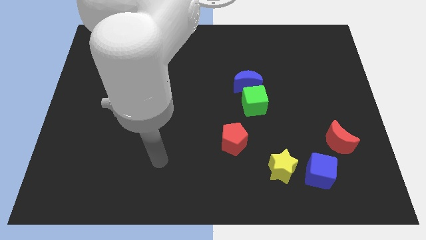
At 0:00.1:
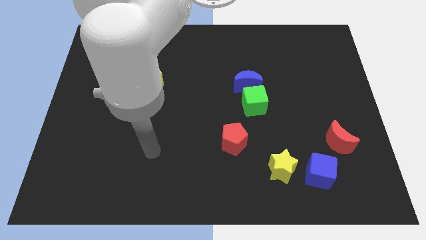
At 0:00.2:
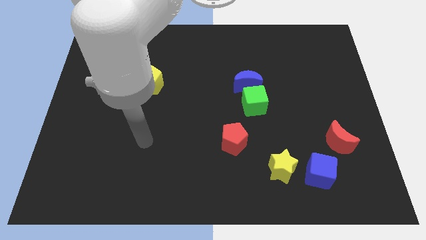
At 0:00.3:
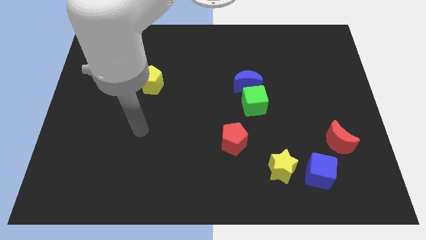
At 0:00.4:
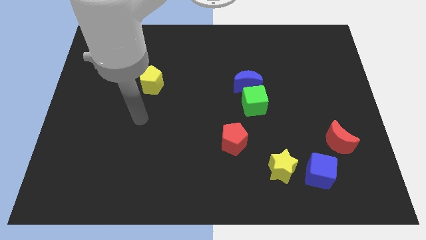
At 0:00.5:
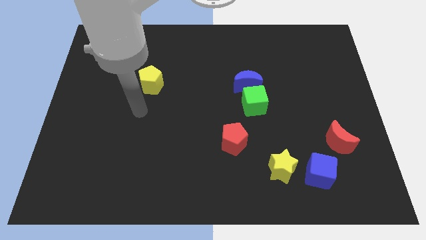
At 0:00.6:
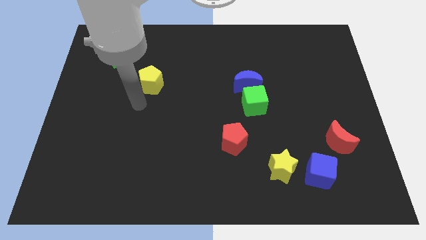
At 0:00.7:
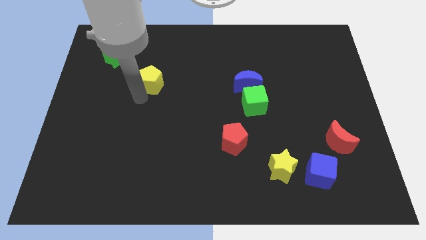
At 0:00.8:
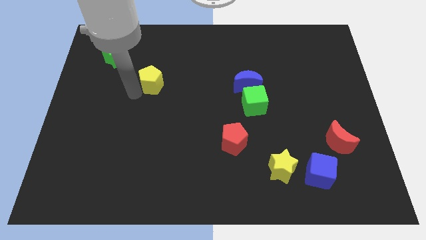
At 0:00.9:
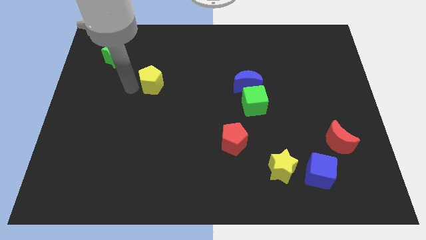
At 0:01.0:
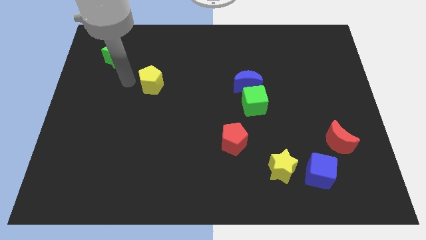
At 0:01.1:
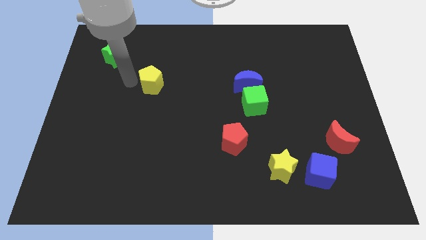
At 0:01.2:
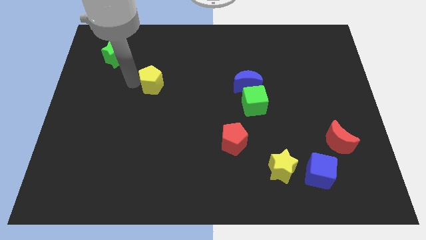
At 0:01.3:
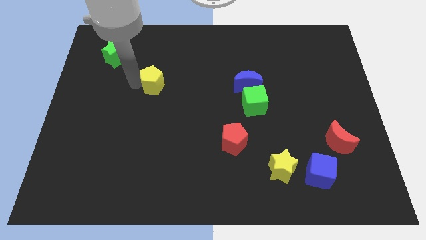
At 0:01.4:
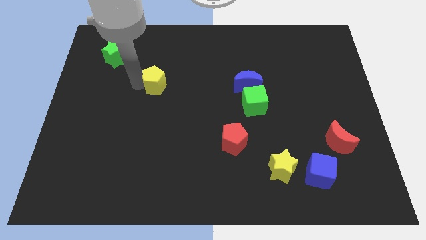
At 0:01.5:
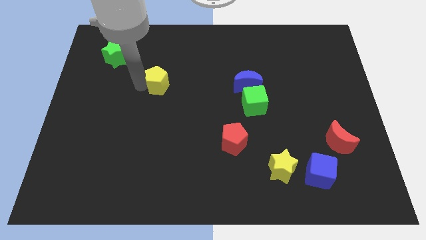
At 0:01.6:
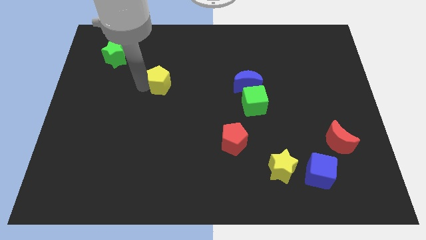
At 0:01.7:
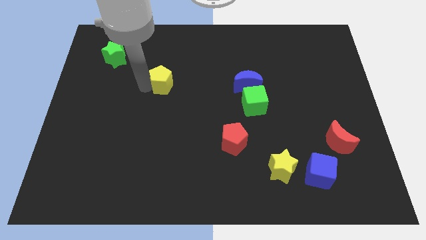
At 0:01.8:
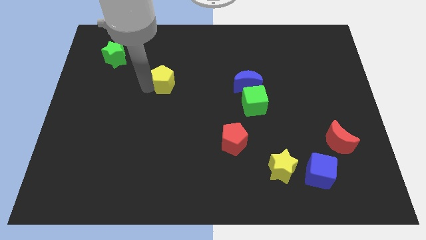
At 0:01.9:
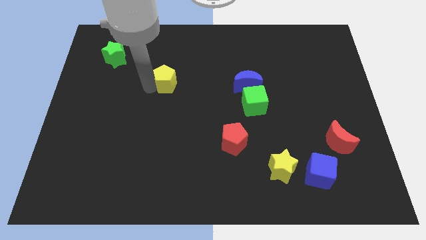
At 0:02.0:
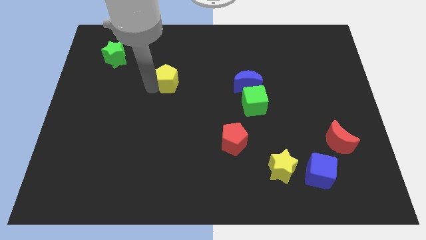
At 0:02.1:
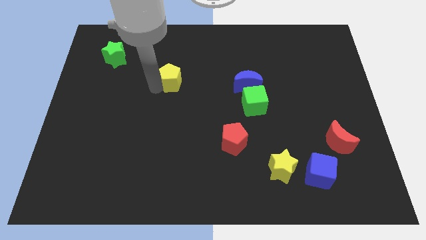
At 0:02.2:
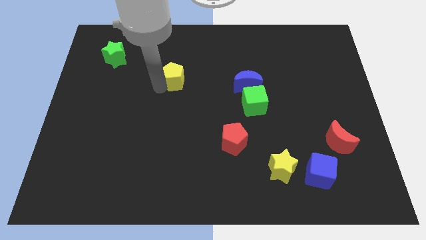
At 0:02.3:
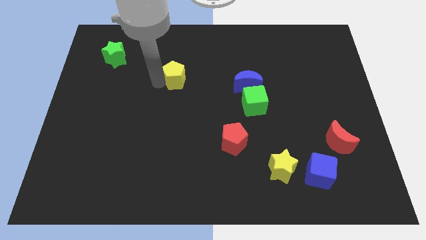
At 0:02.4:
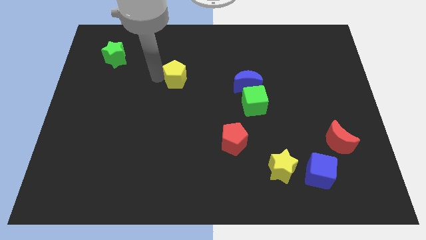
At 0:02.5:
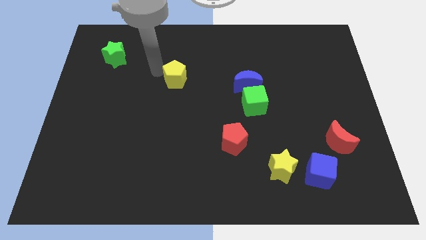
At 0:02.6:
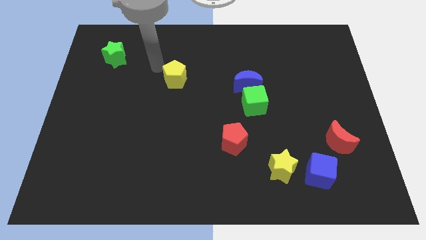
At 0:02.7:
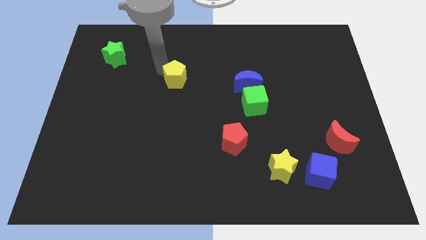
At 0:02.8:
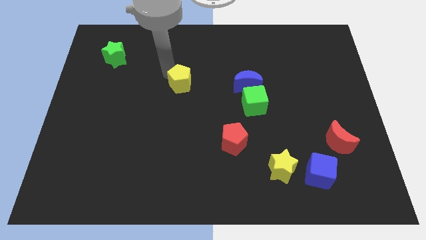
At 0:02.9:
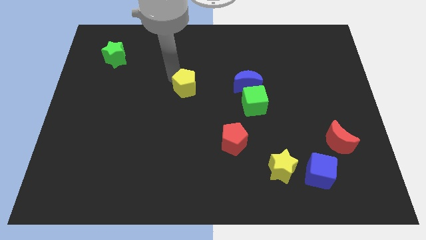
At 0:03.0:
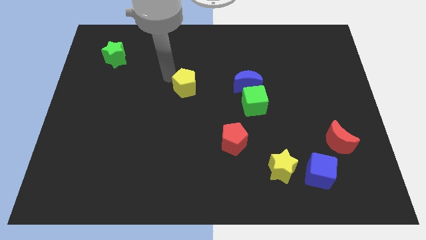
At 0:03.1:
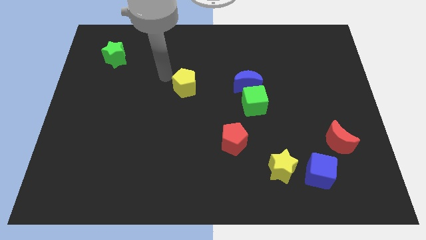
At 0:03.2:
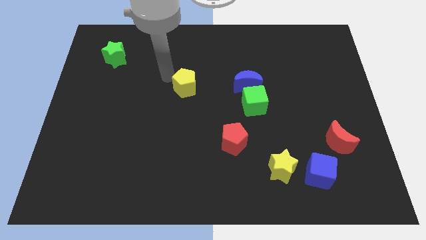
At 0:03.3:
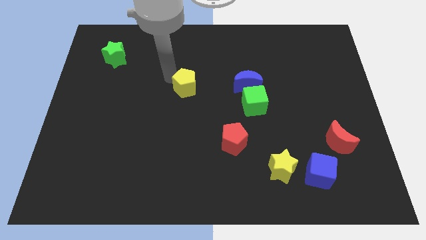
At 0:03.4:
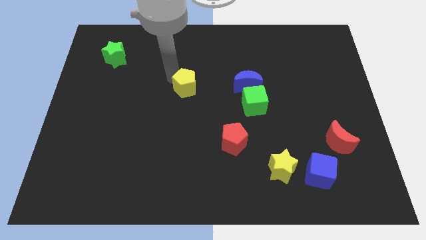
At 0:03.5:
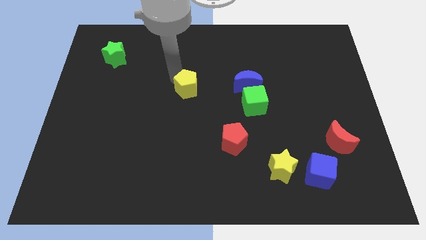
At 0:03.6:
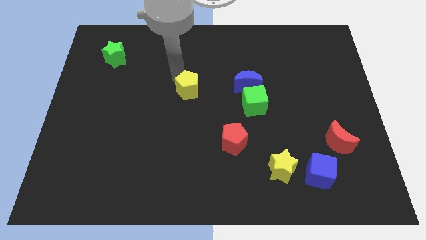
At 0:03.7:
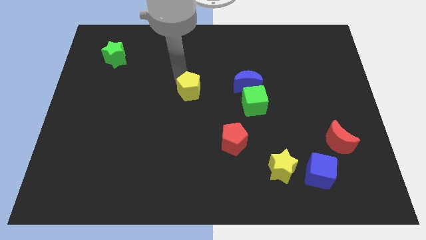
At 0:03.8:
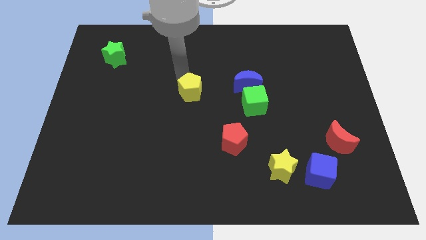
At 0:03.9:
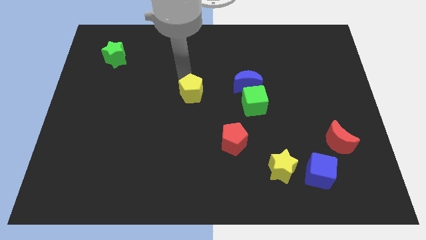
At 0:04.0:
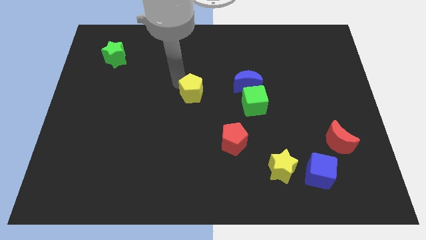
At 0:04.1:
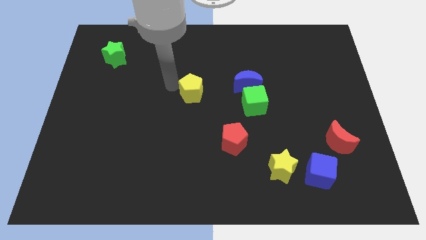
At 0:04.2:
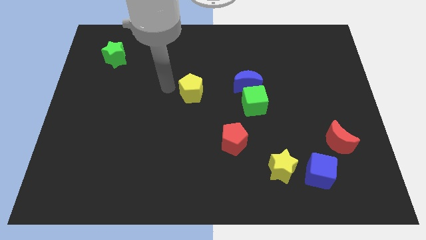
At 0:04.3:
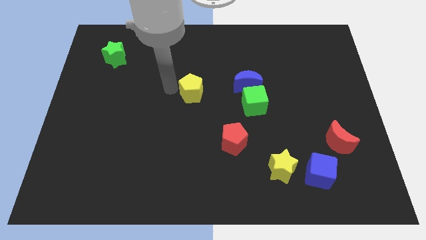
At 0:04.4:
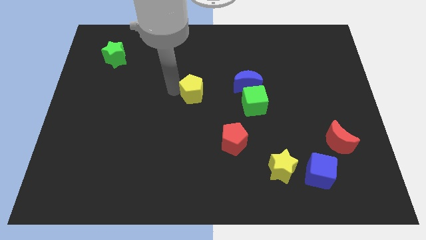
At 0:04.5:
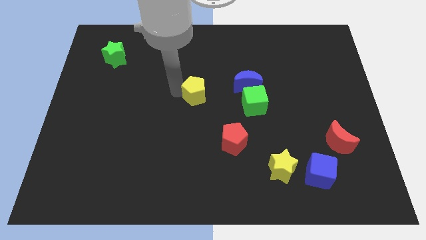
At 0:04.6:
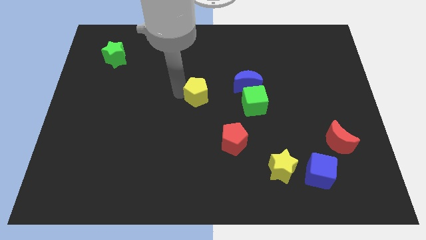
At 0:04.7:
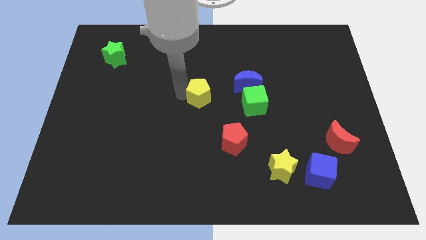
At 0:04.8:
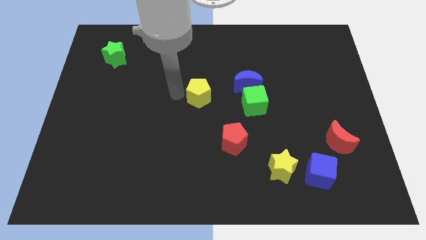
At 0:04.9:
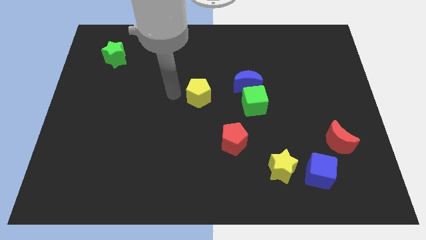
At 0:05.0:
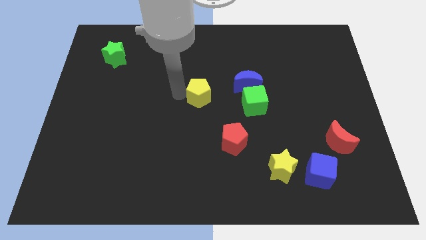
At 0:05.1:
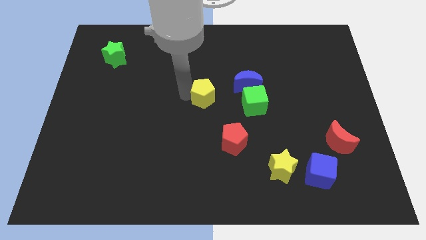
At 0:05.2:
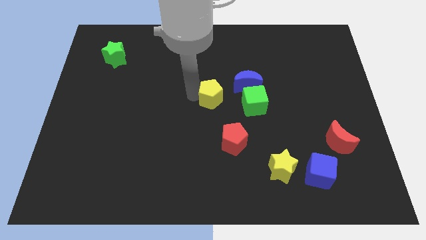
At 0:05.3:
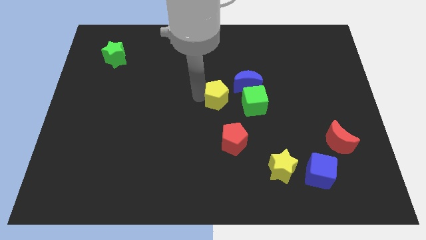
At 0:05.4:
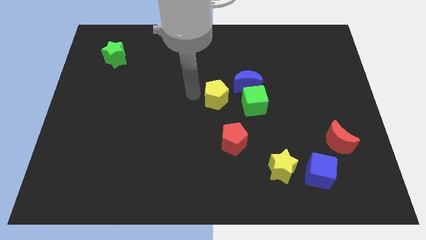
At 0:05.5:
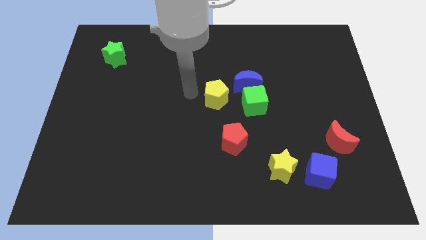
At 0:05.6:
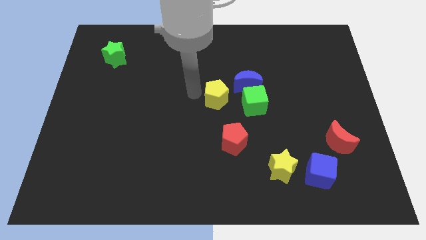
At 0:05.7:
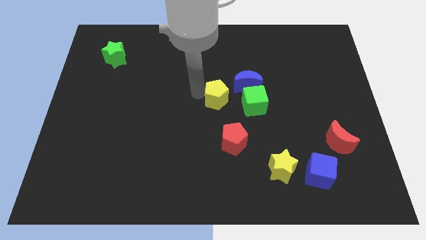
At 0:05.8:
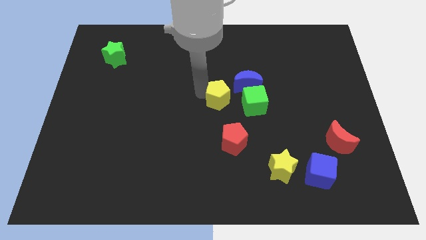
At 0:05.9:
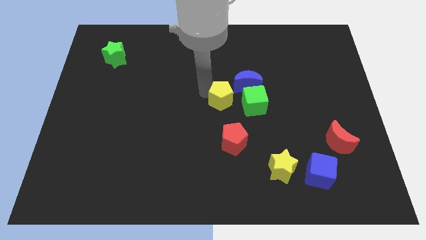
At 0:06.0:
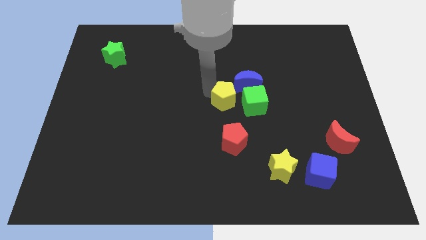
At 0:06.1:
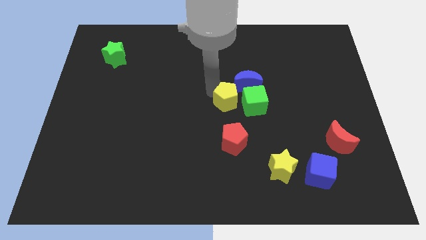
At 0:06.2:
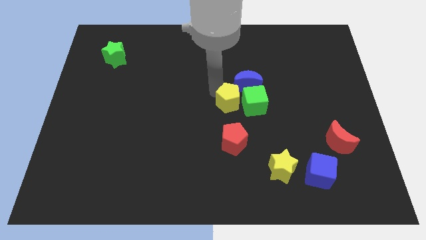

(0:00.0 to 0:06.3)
put the yellow pentagon to the green cube
